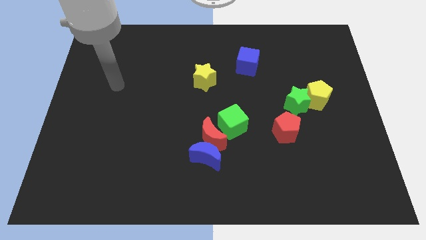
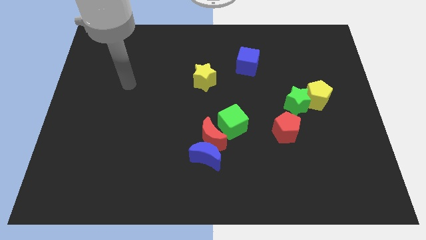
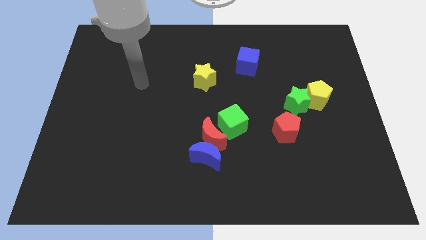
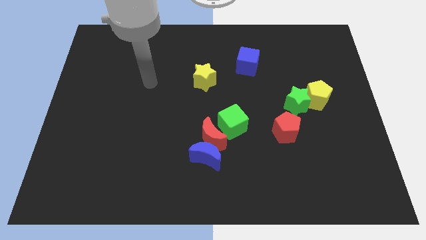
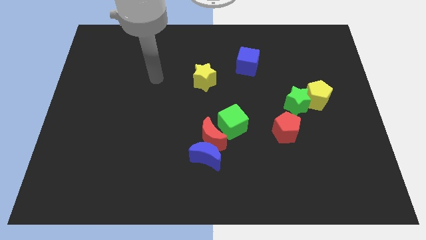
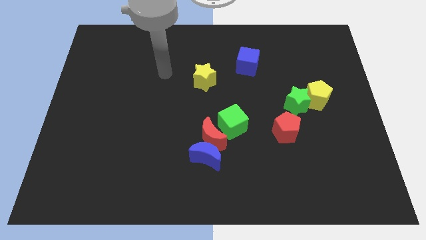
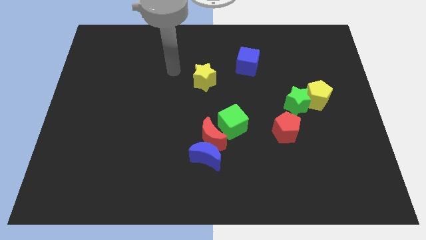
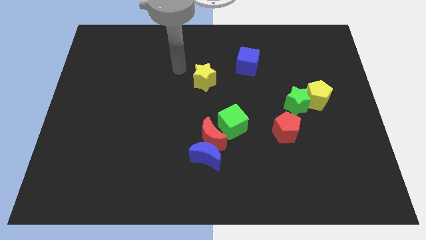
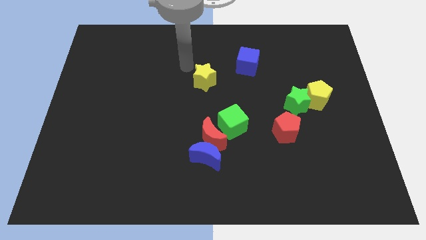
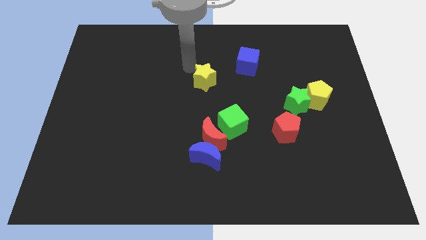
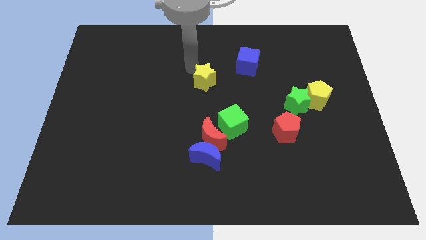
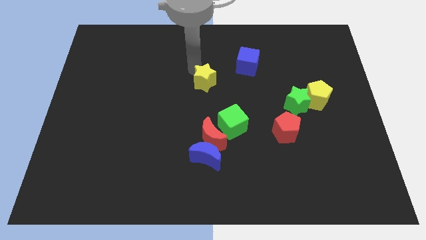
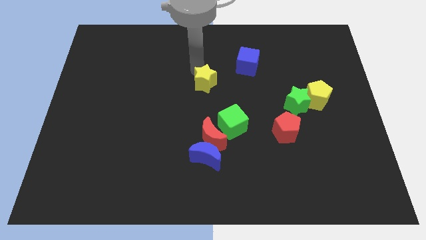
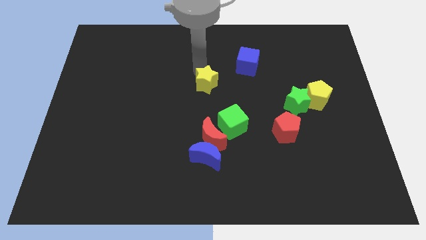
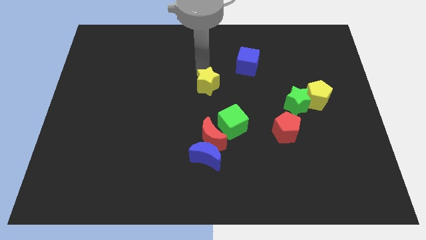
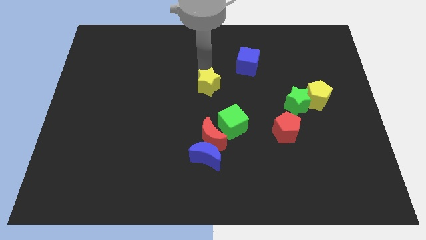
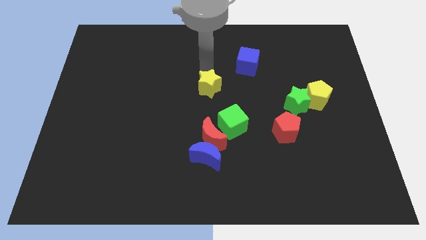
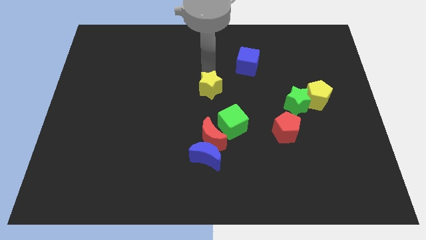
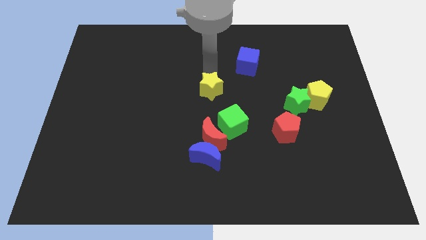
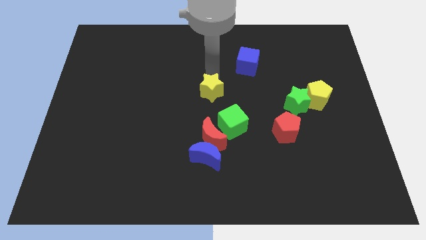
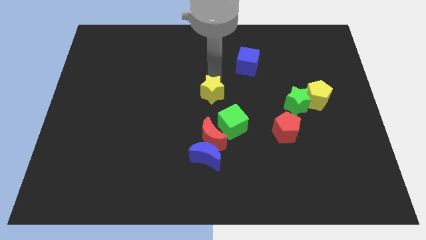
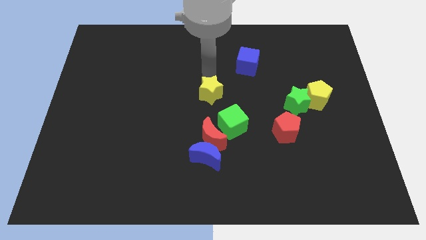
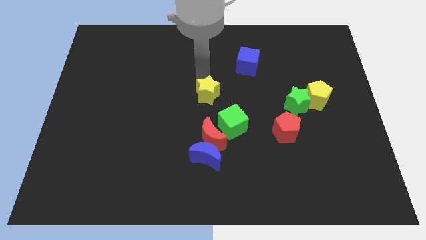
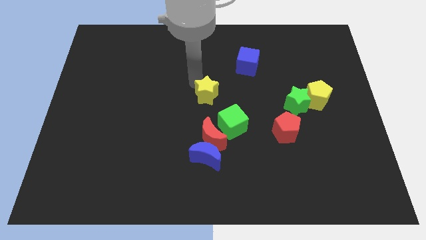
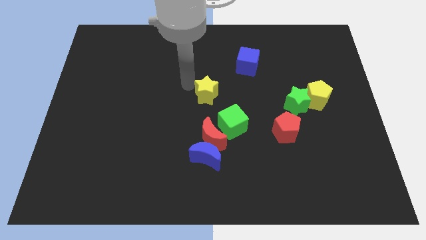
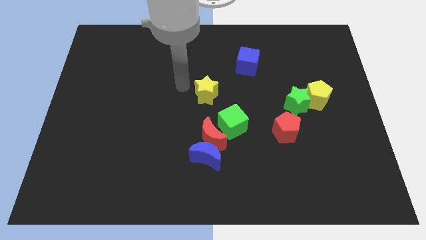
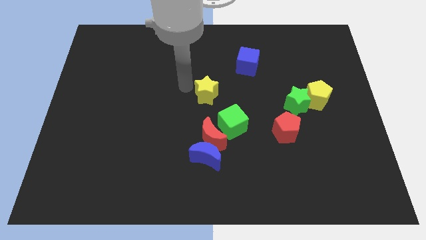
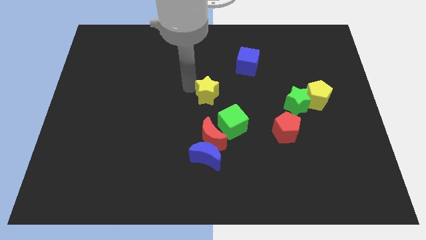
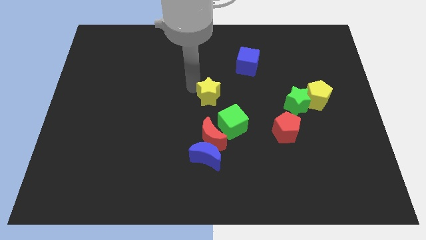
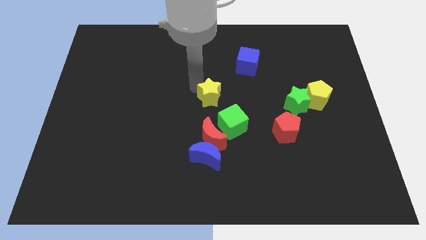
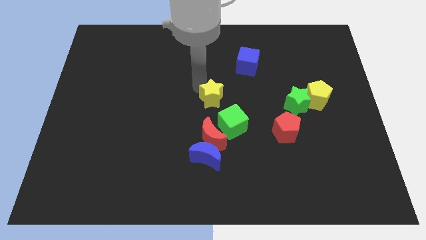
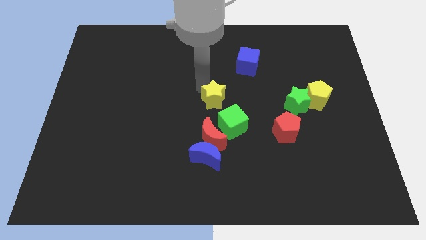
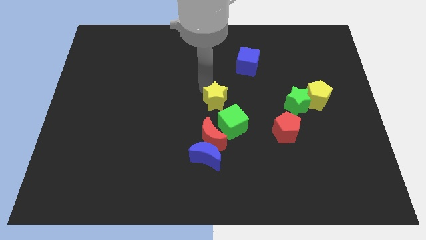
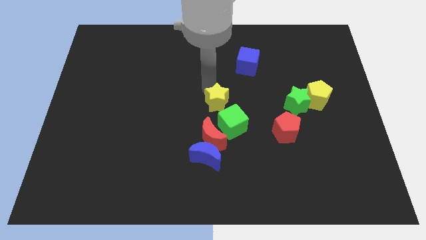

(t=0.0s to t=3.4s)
slightly move the yellow star down and right diagonally

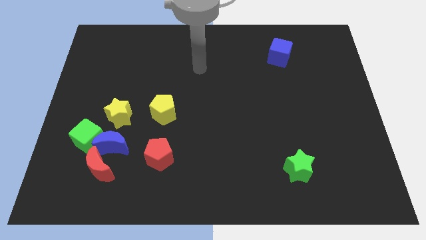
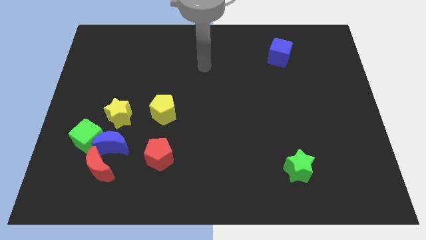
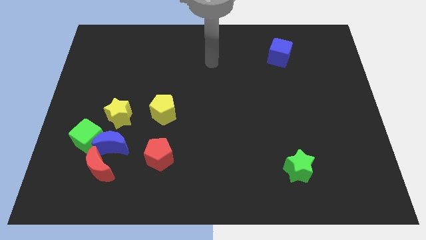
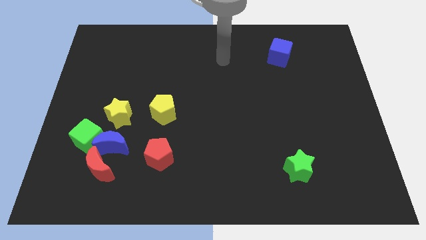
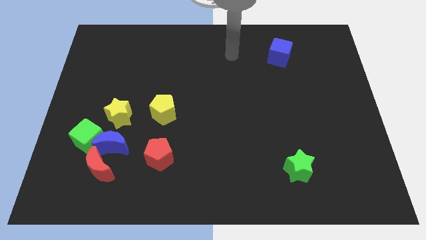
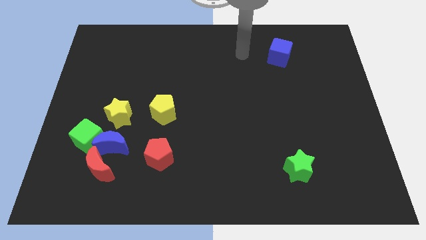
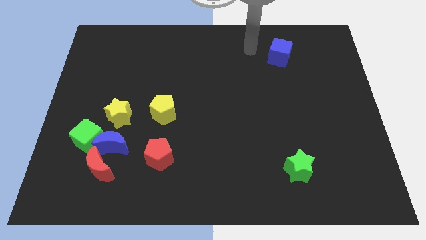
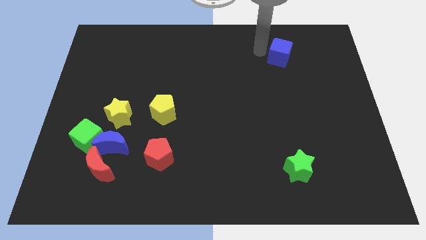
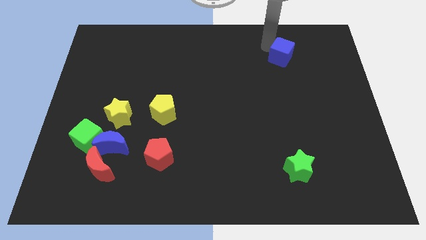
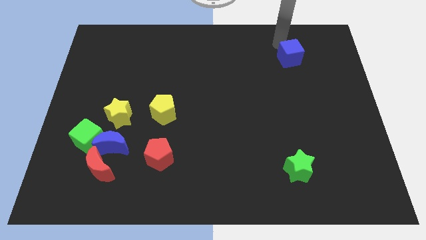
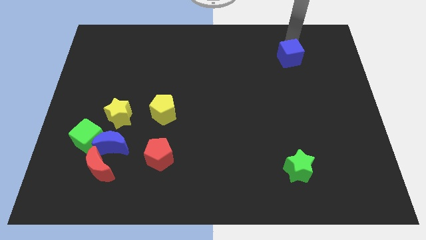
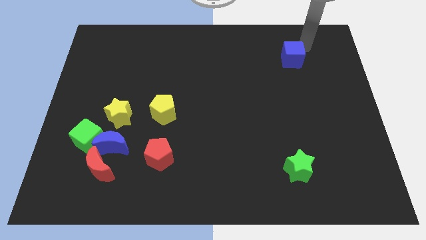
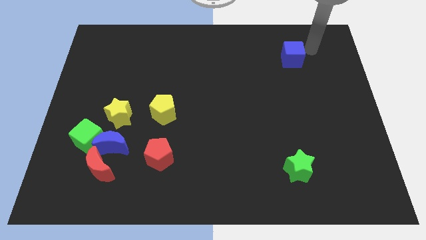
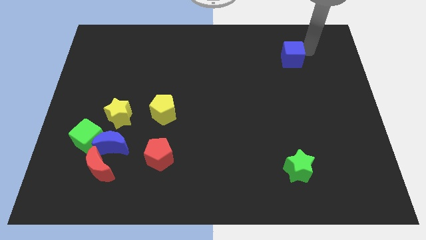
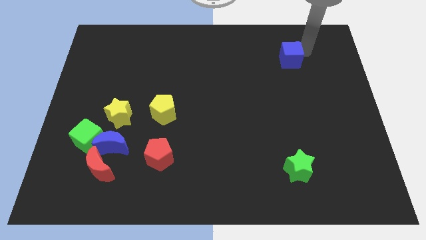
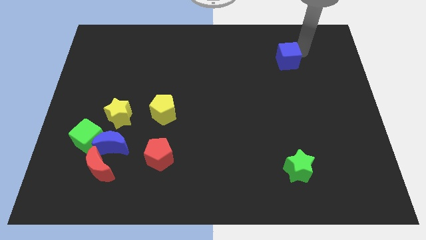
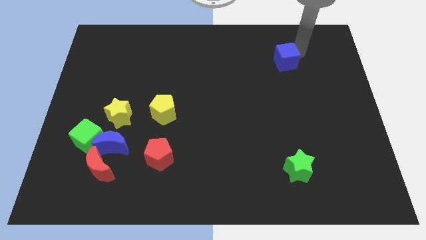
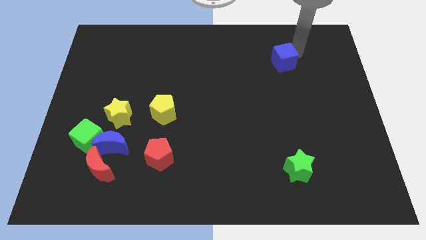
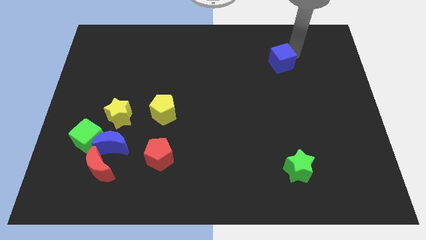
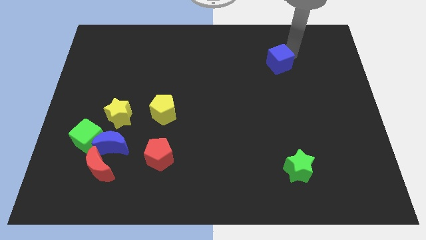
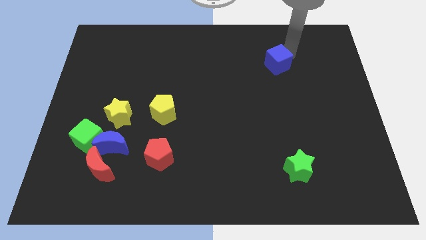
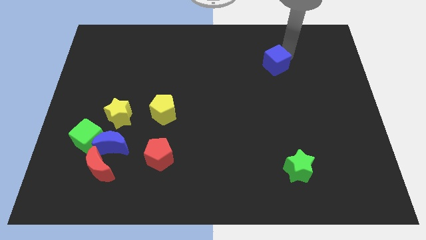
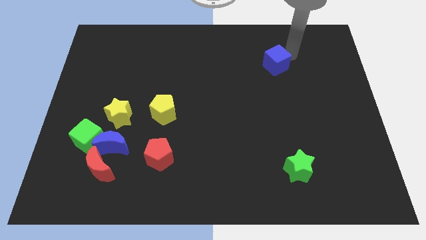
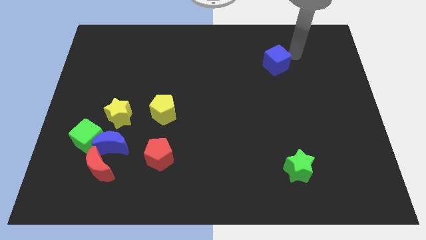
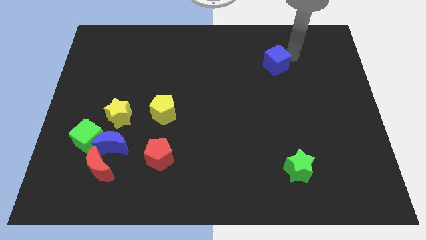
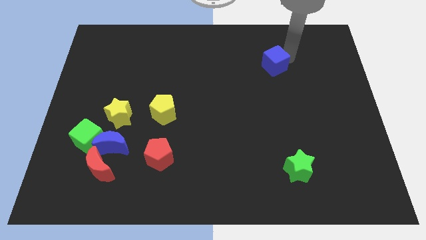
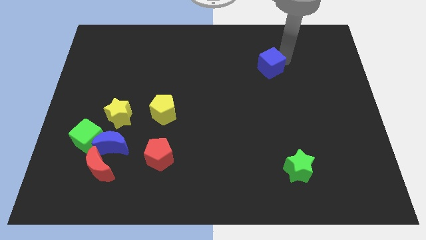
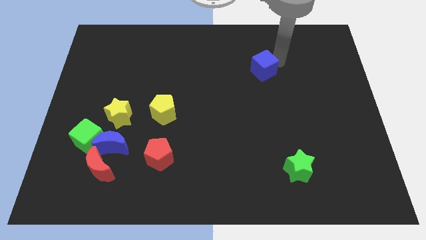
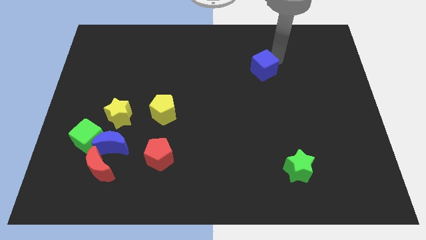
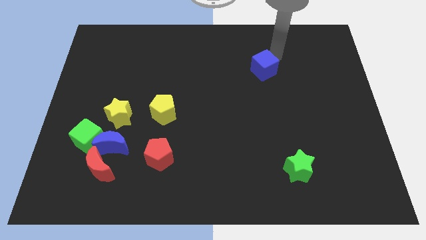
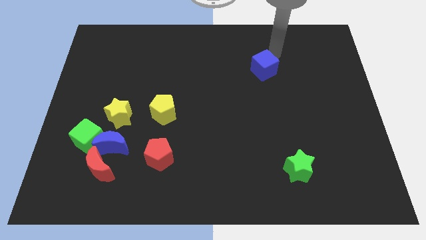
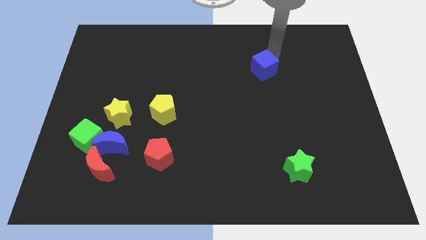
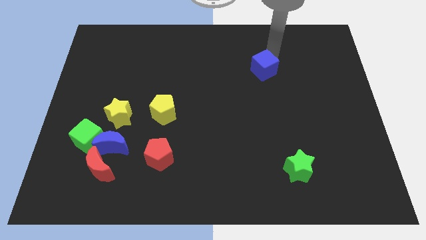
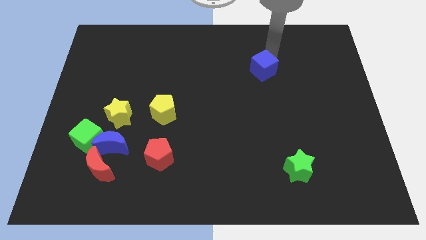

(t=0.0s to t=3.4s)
slightly push the blue cube downwards and to the left

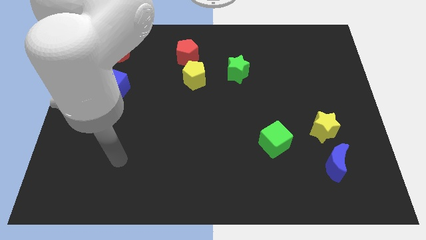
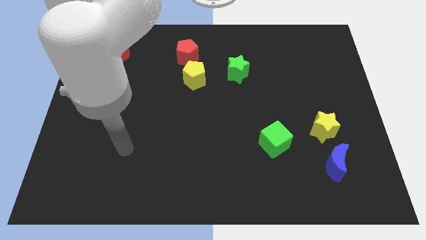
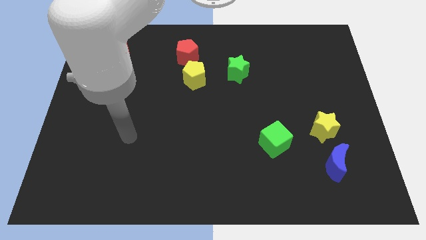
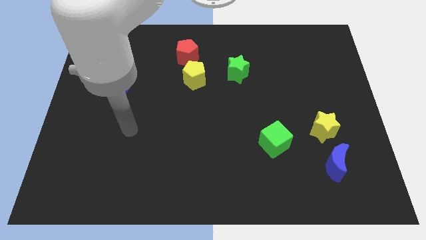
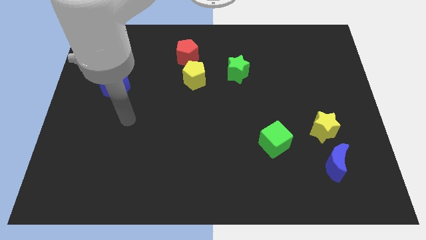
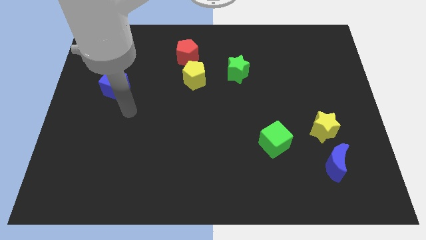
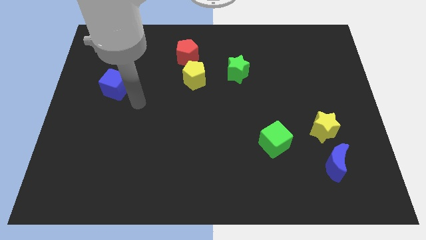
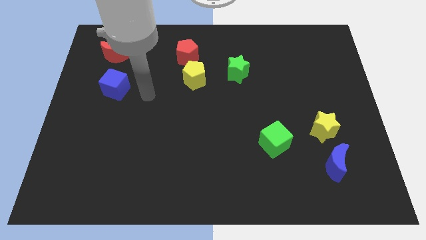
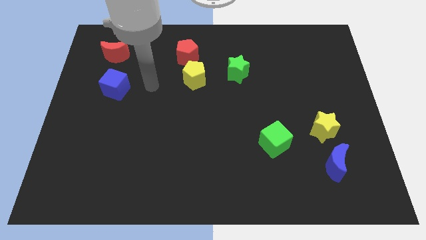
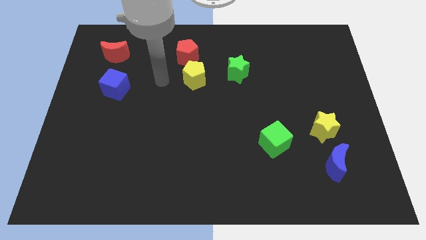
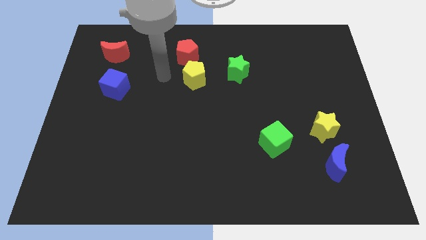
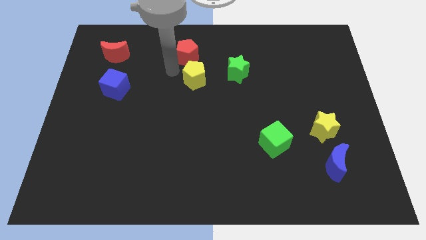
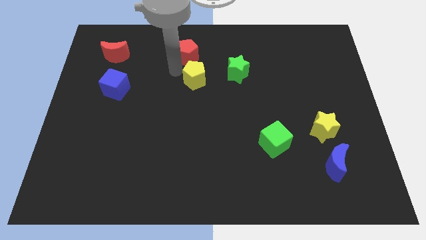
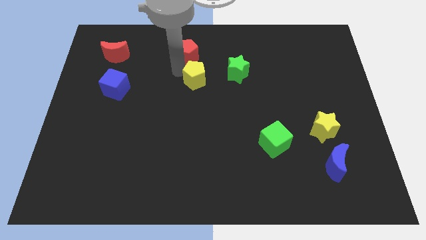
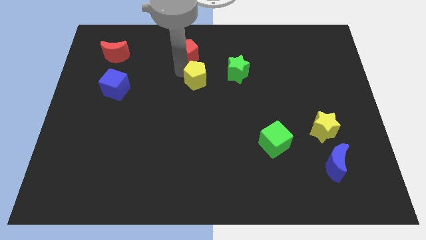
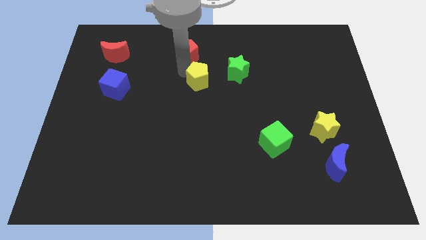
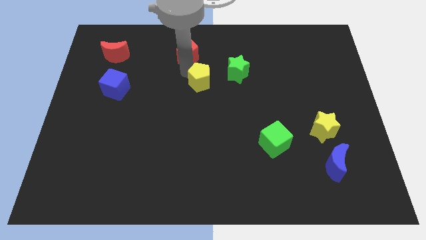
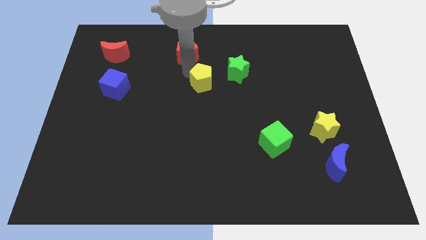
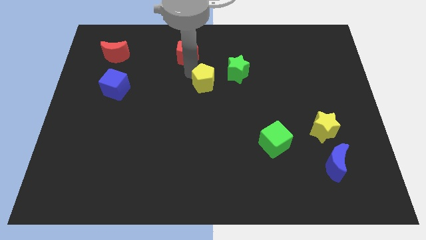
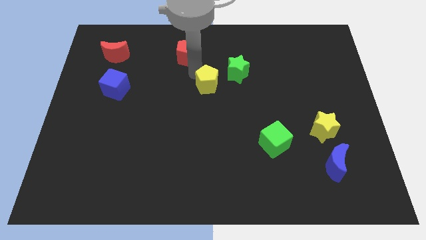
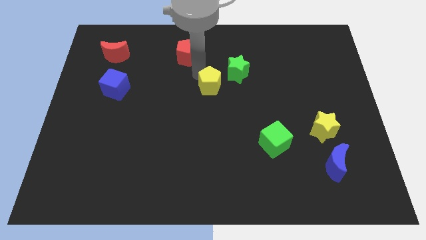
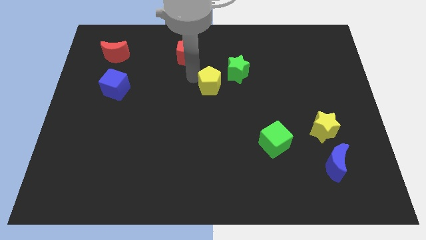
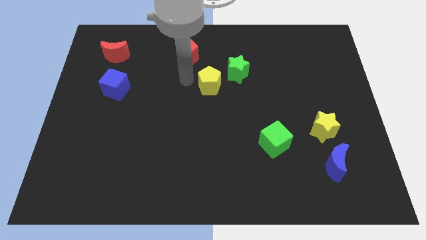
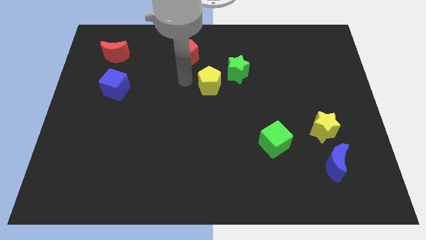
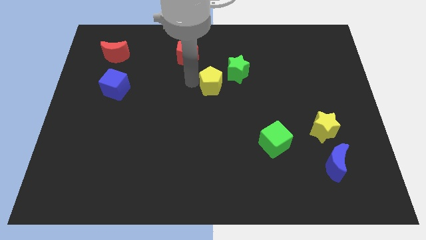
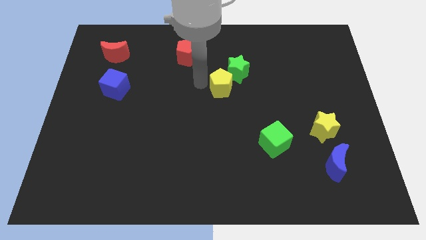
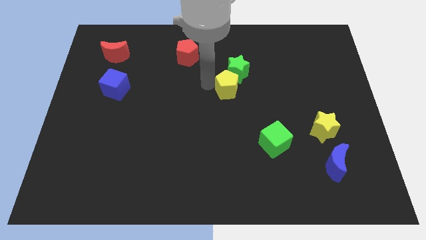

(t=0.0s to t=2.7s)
slightly push the yellow pentagon right
